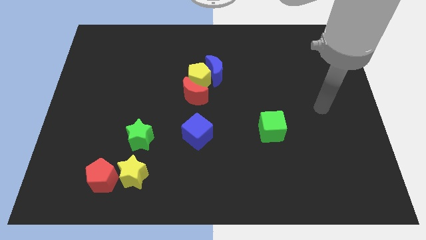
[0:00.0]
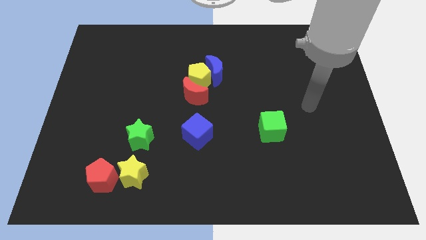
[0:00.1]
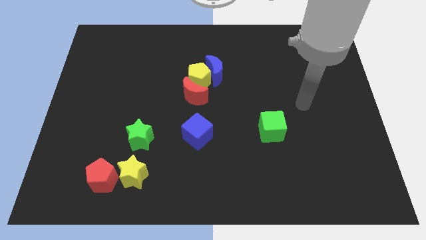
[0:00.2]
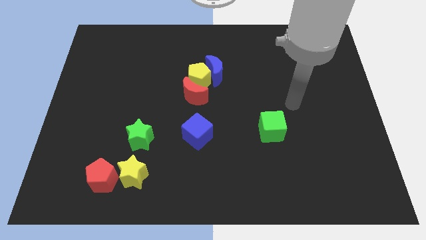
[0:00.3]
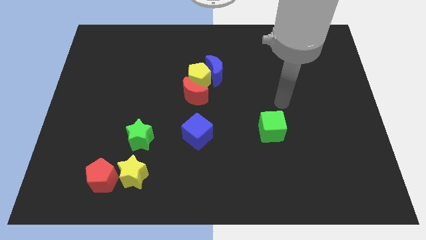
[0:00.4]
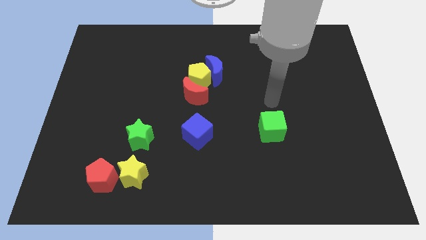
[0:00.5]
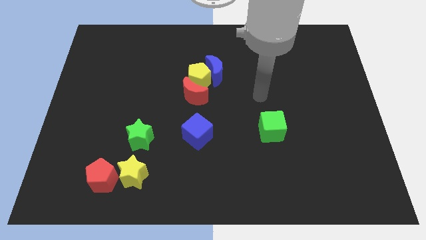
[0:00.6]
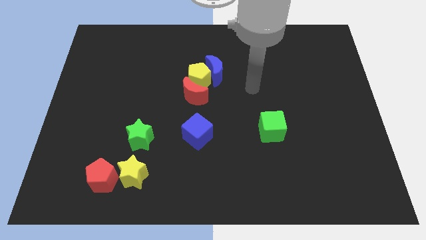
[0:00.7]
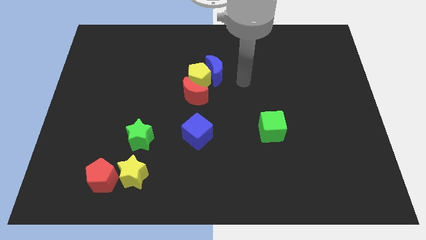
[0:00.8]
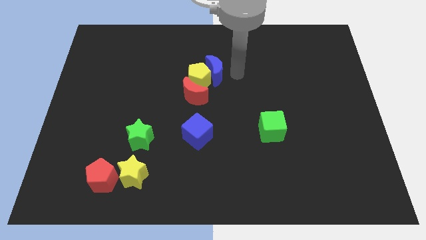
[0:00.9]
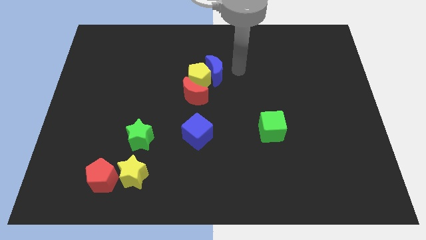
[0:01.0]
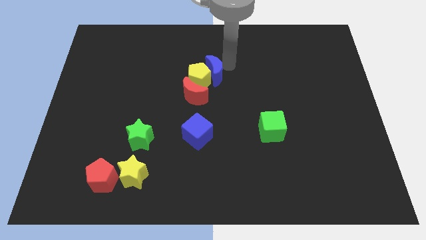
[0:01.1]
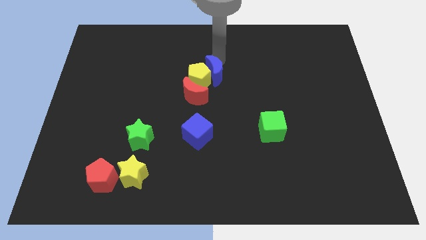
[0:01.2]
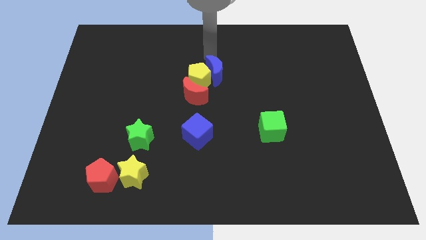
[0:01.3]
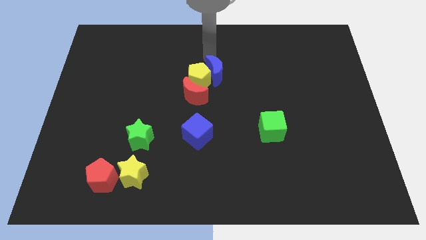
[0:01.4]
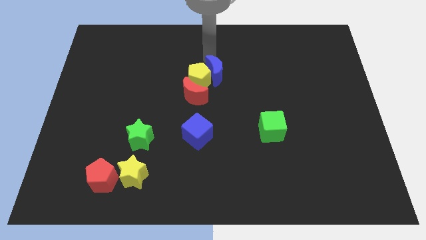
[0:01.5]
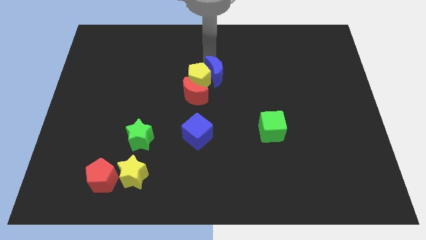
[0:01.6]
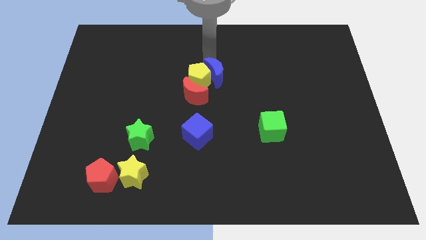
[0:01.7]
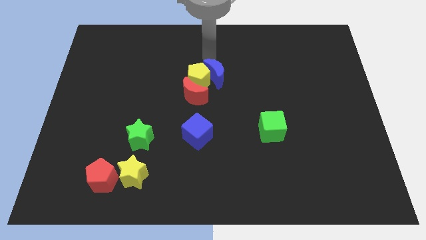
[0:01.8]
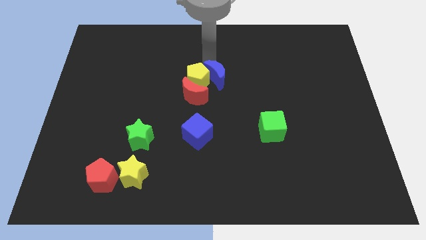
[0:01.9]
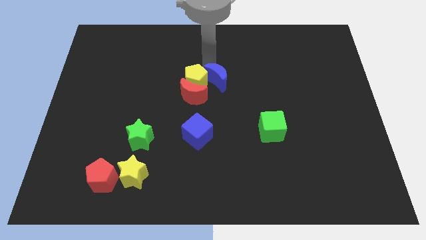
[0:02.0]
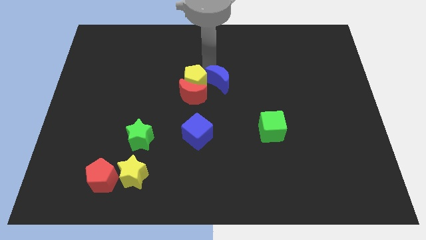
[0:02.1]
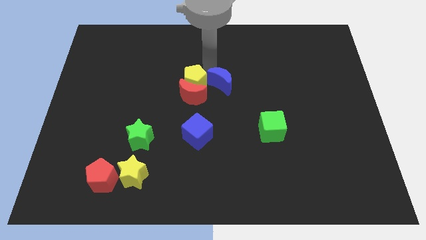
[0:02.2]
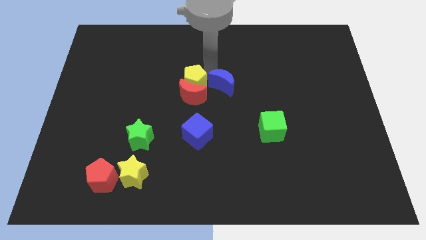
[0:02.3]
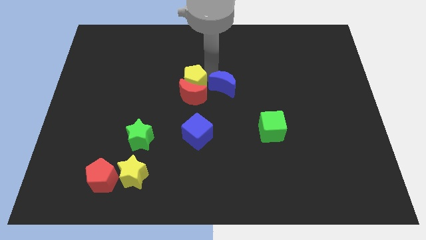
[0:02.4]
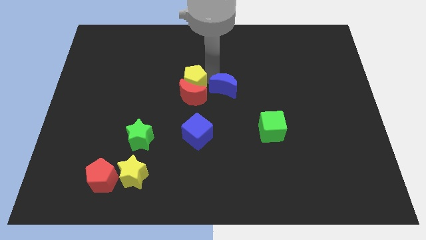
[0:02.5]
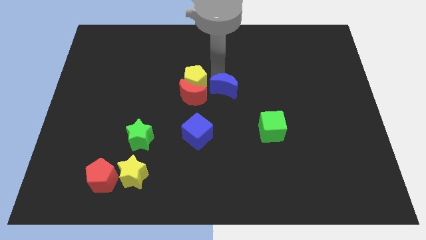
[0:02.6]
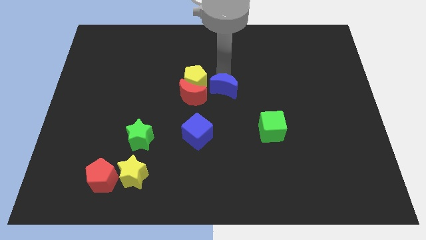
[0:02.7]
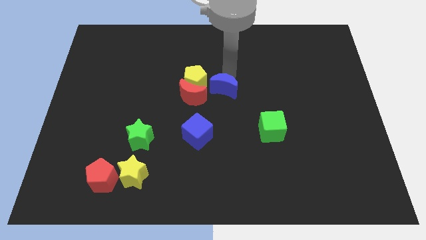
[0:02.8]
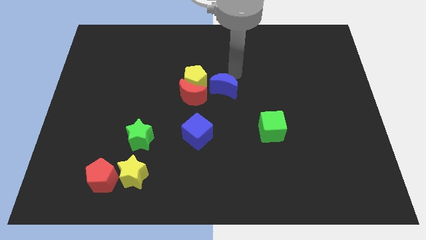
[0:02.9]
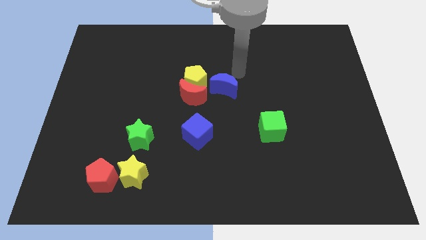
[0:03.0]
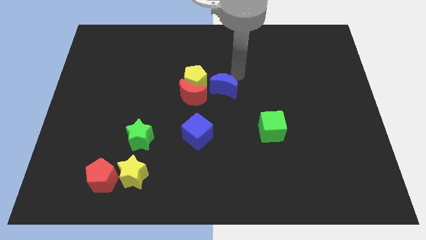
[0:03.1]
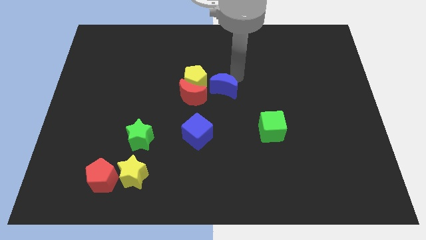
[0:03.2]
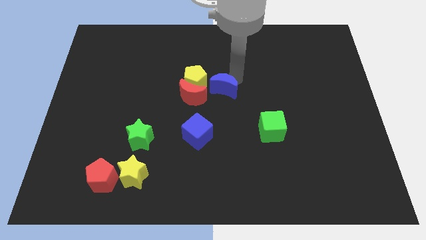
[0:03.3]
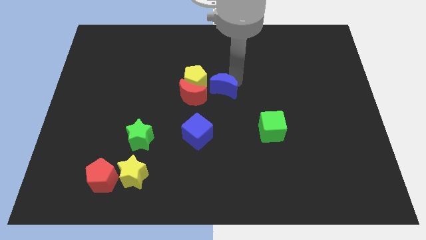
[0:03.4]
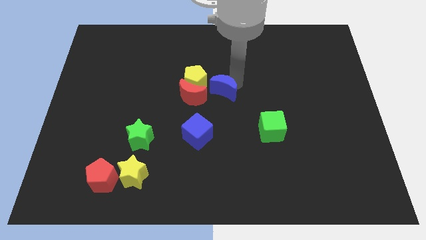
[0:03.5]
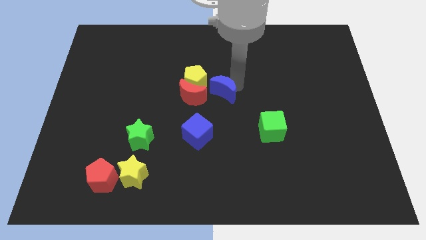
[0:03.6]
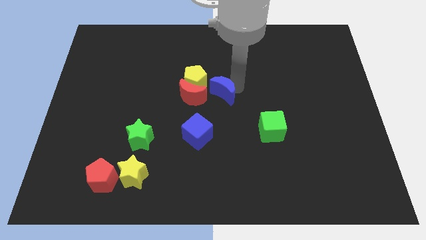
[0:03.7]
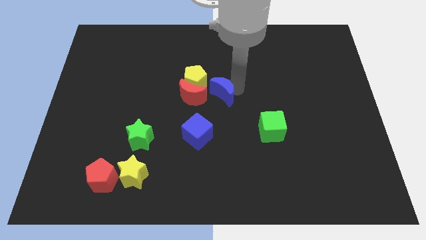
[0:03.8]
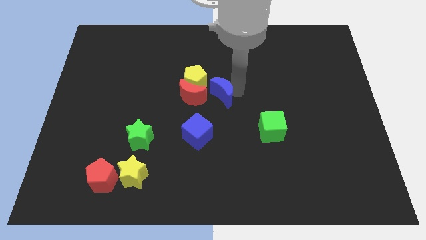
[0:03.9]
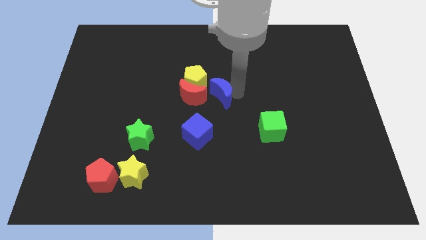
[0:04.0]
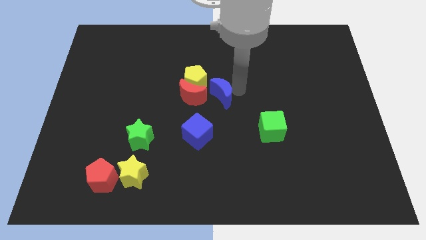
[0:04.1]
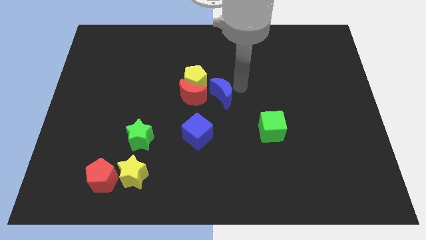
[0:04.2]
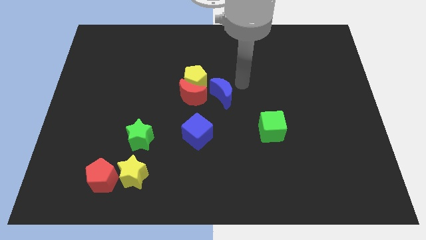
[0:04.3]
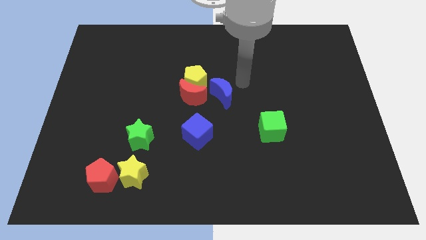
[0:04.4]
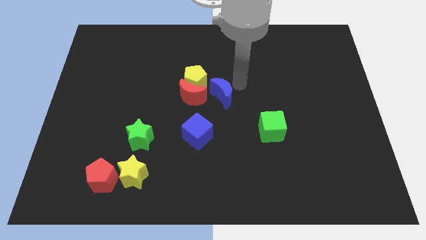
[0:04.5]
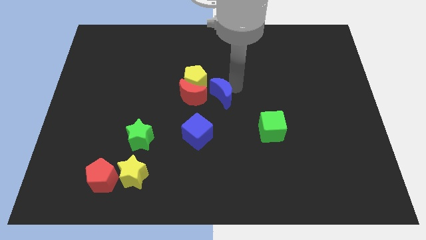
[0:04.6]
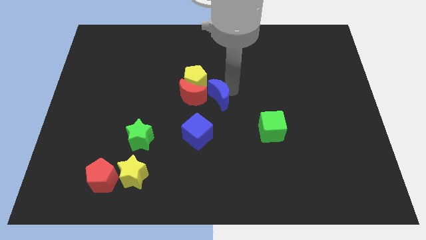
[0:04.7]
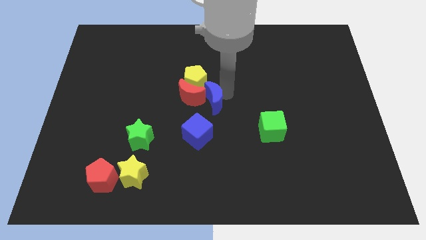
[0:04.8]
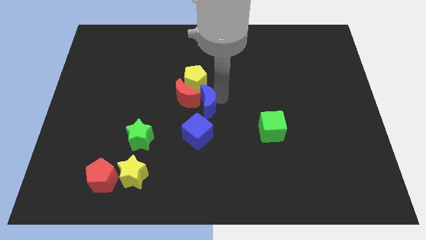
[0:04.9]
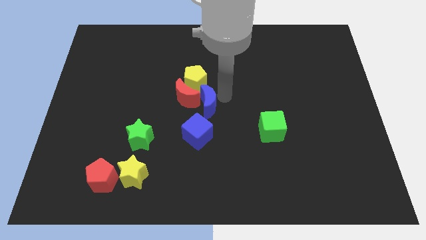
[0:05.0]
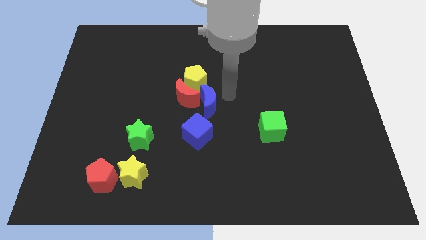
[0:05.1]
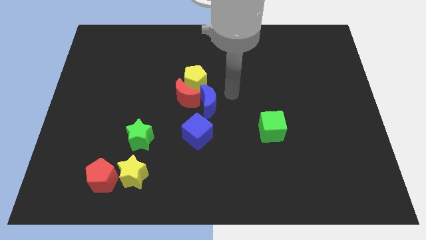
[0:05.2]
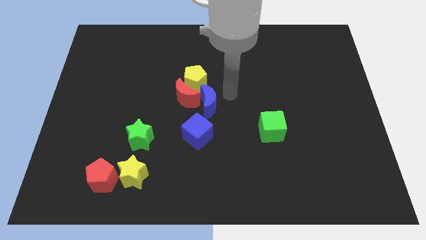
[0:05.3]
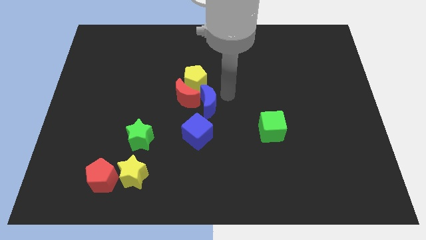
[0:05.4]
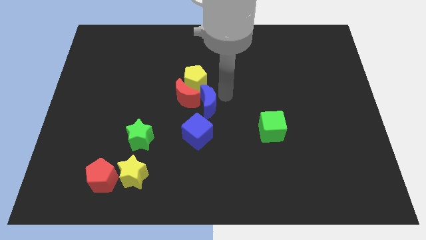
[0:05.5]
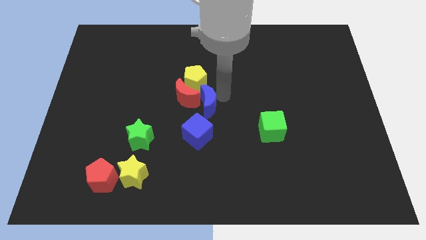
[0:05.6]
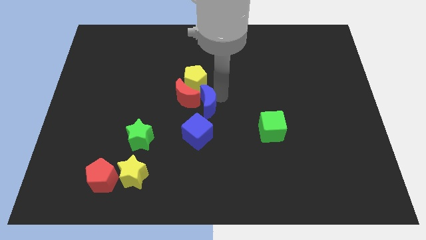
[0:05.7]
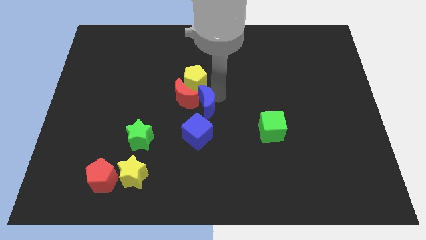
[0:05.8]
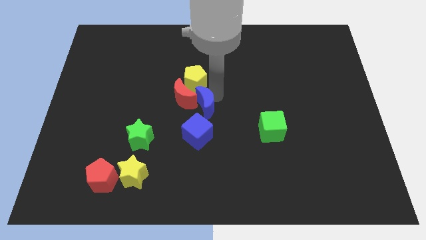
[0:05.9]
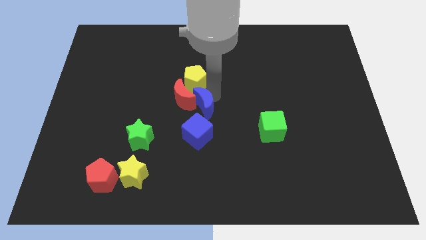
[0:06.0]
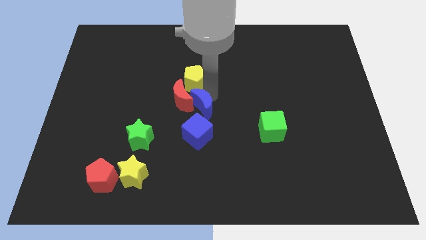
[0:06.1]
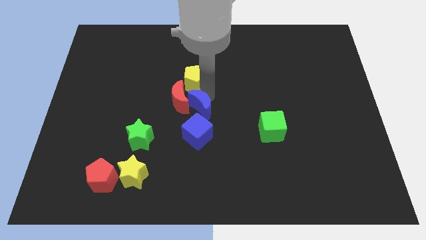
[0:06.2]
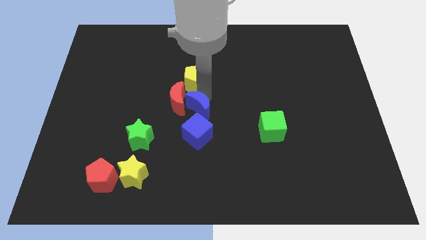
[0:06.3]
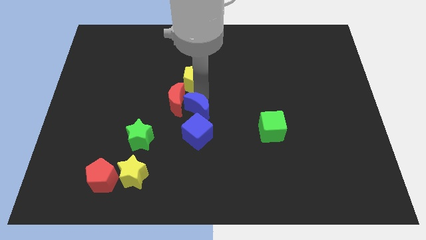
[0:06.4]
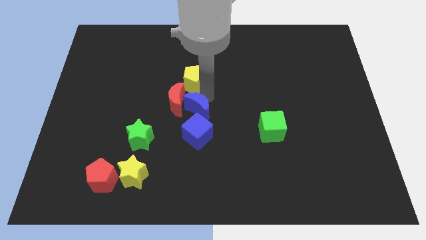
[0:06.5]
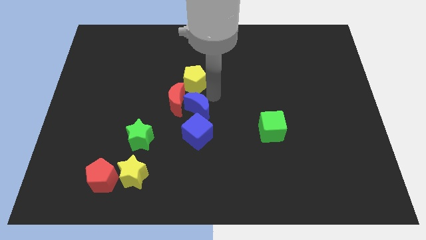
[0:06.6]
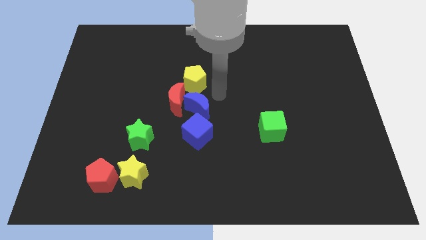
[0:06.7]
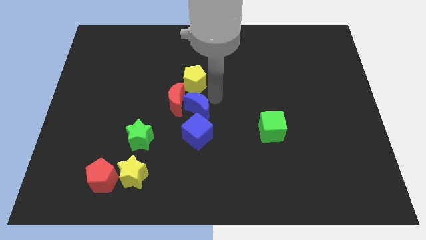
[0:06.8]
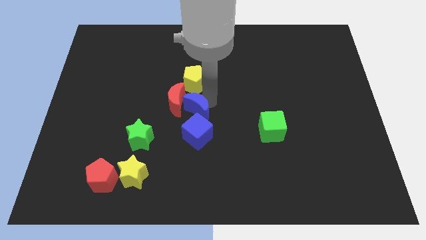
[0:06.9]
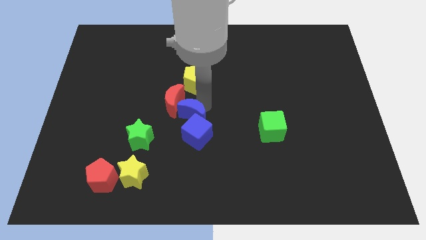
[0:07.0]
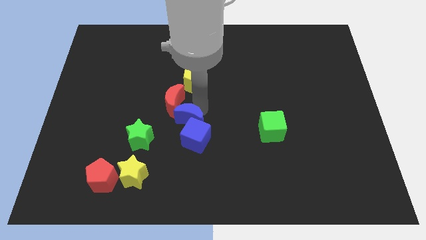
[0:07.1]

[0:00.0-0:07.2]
slide the blue moon to the bottom side of the red moon
